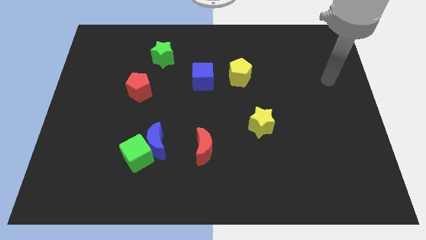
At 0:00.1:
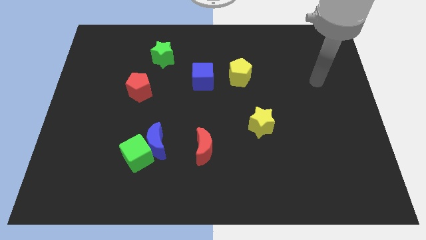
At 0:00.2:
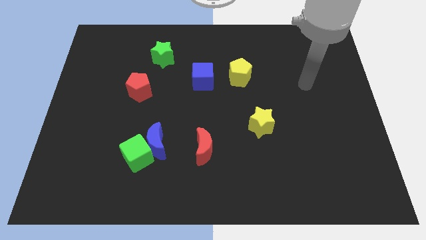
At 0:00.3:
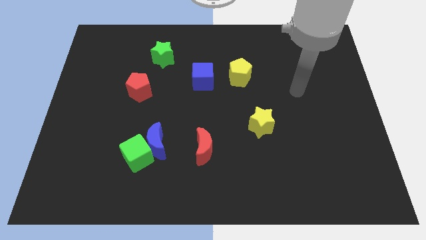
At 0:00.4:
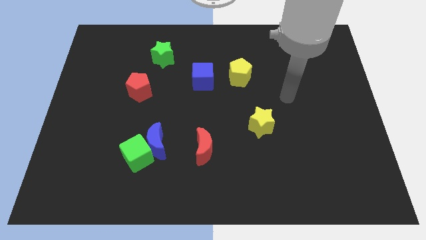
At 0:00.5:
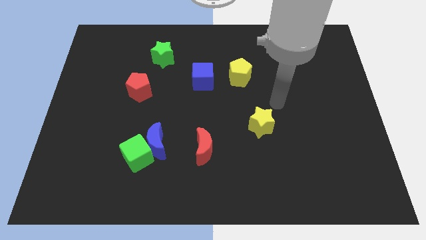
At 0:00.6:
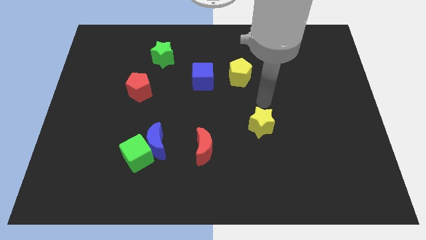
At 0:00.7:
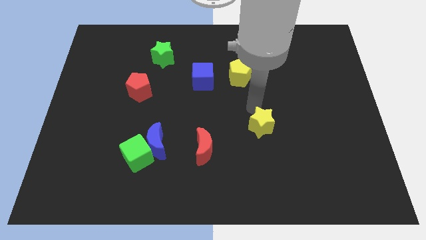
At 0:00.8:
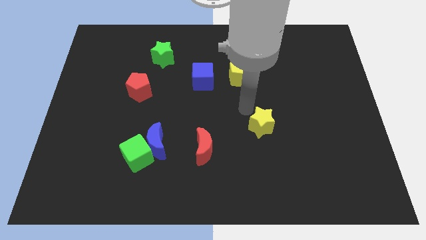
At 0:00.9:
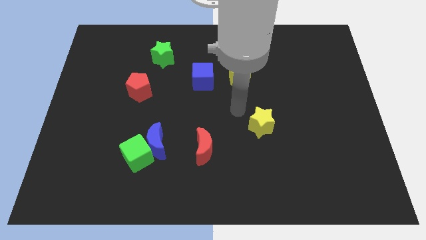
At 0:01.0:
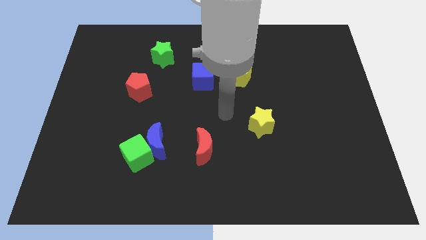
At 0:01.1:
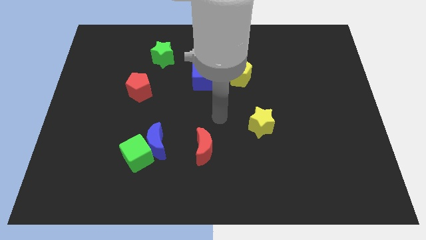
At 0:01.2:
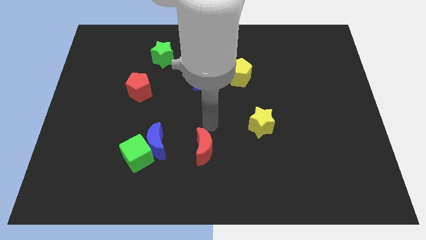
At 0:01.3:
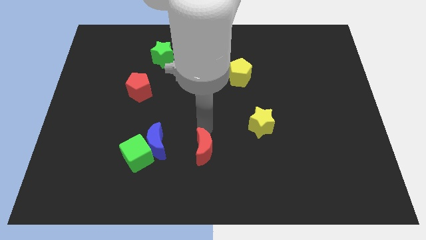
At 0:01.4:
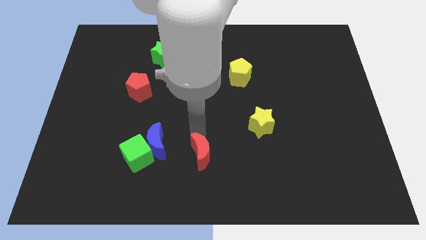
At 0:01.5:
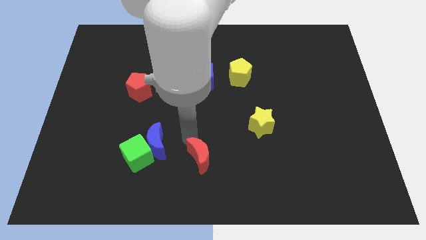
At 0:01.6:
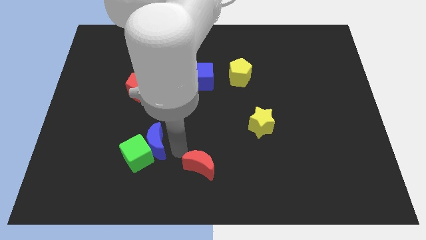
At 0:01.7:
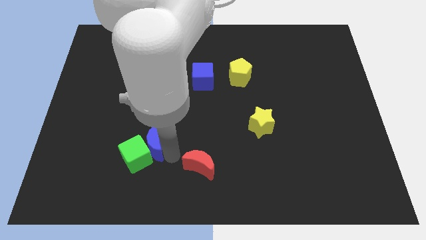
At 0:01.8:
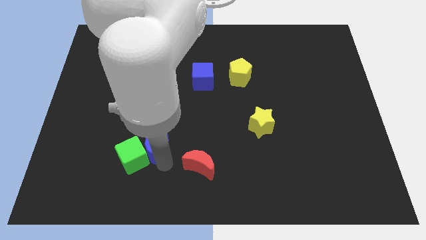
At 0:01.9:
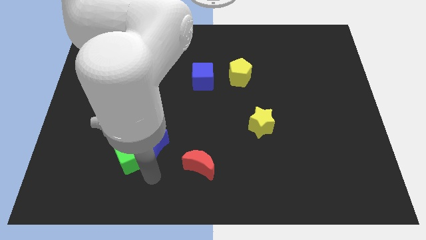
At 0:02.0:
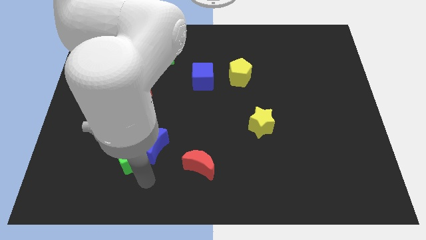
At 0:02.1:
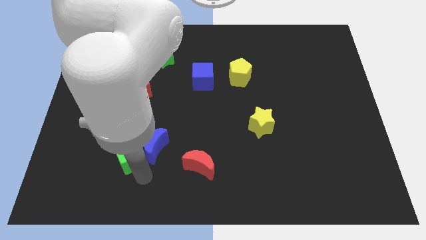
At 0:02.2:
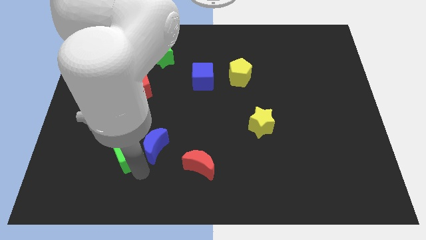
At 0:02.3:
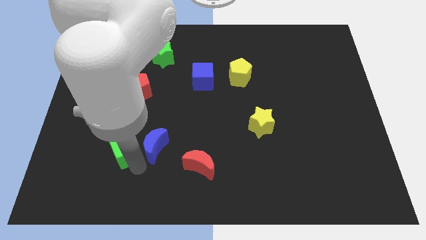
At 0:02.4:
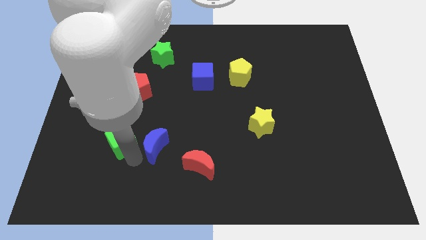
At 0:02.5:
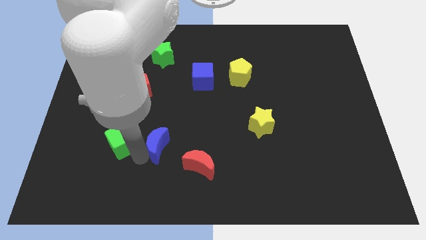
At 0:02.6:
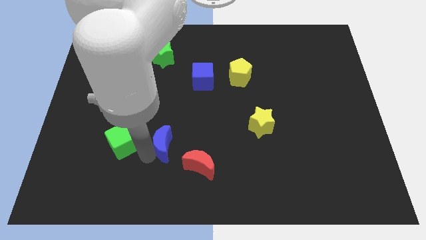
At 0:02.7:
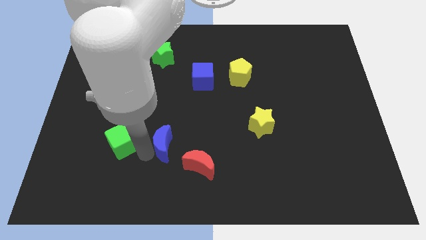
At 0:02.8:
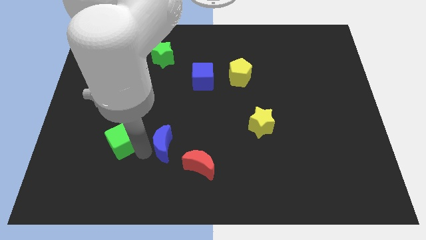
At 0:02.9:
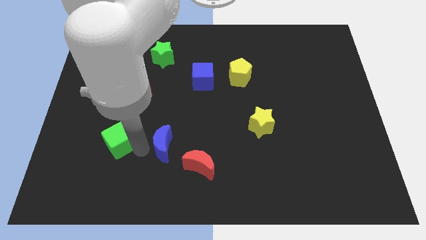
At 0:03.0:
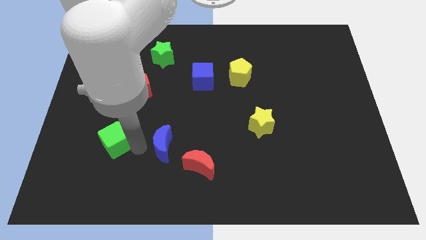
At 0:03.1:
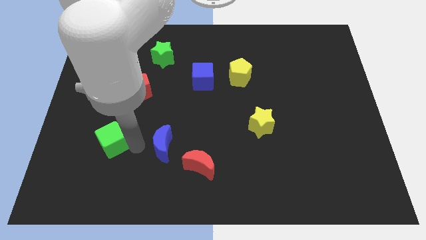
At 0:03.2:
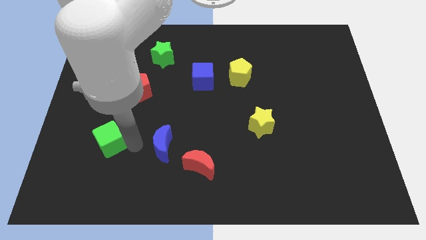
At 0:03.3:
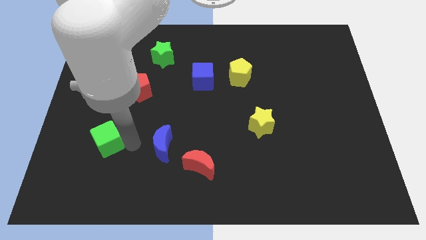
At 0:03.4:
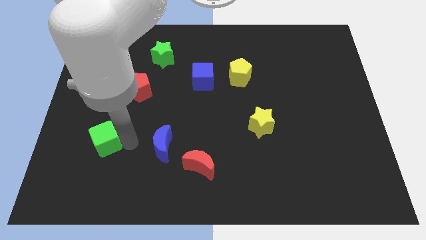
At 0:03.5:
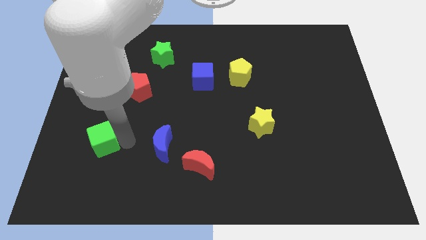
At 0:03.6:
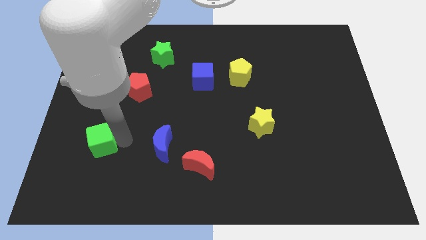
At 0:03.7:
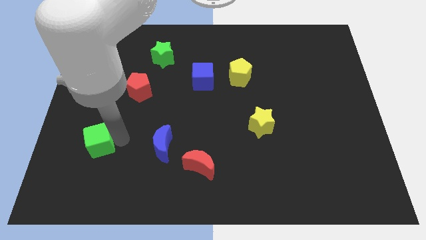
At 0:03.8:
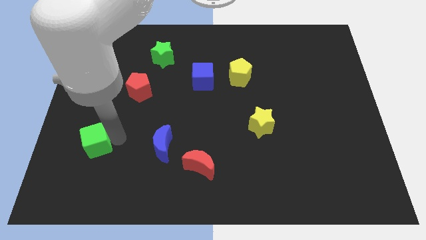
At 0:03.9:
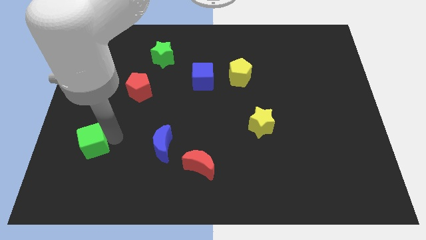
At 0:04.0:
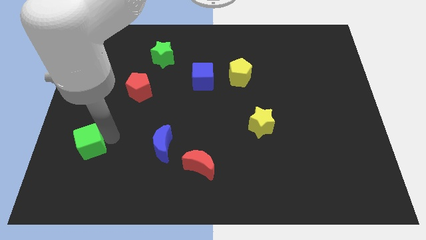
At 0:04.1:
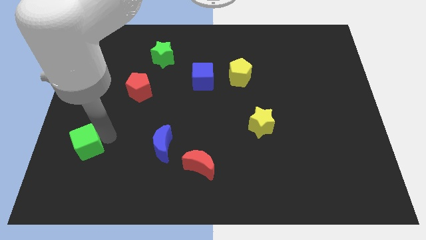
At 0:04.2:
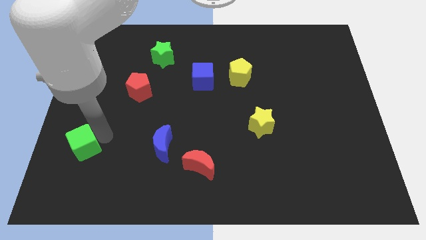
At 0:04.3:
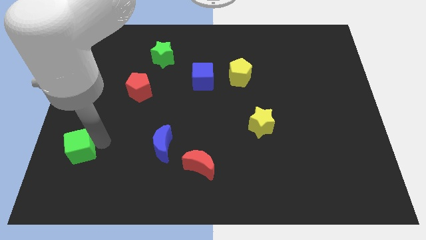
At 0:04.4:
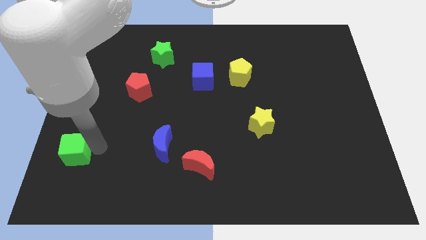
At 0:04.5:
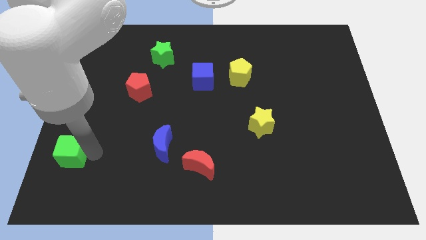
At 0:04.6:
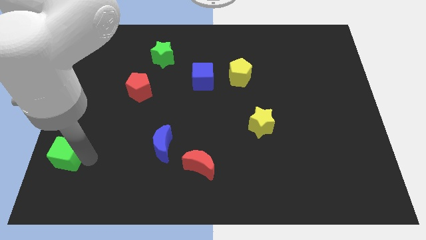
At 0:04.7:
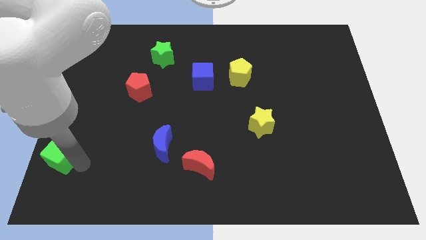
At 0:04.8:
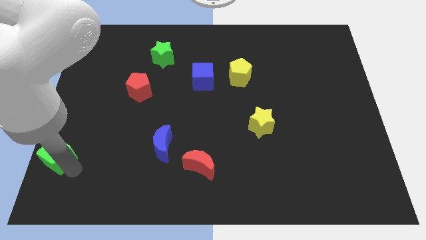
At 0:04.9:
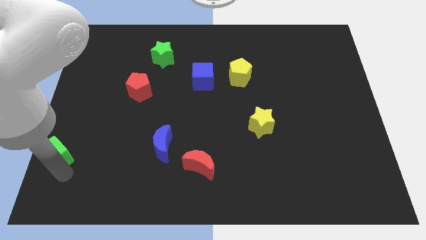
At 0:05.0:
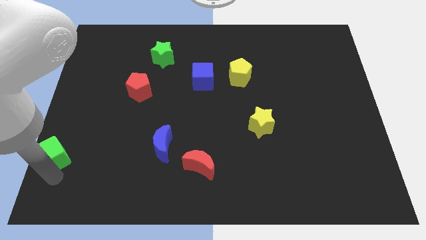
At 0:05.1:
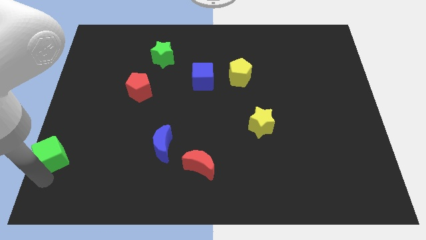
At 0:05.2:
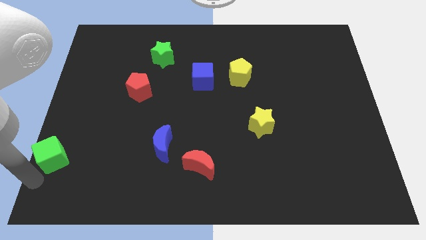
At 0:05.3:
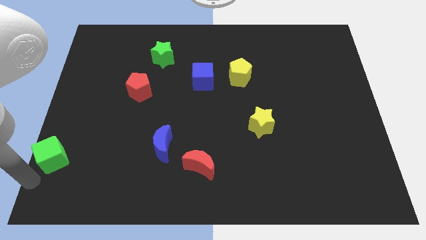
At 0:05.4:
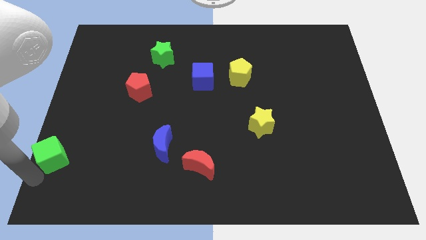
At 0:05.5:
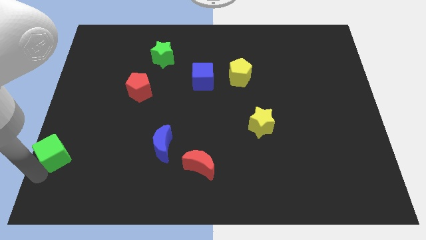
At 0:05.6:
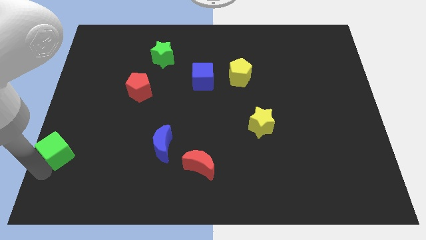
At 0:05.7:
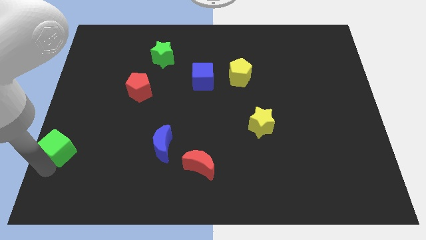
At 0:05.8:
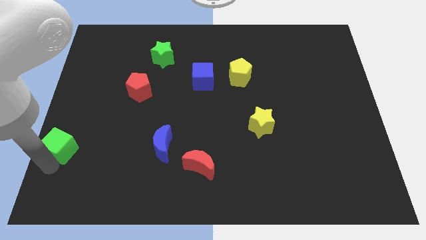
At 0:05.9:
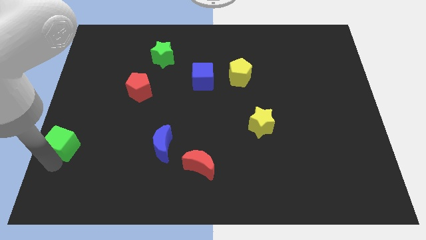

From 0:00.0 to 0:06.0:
slide the green cube to the center left

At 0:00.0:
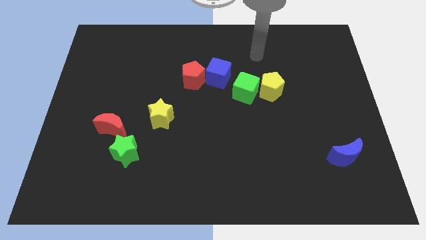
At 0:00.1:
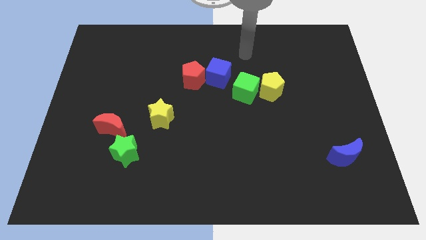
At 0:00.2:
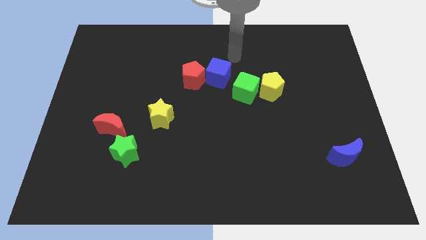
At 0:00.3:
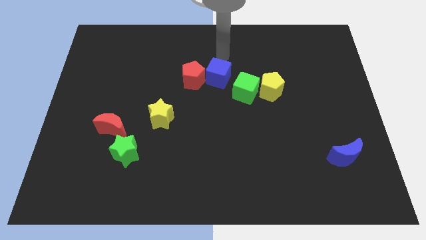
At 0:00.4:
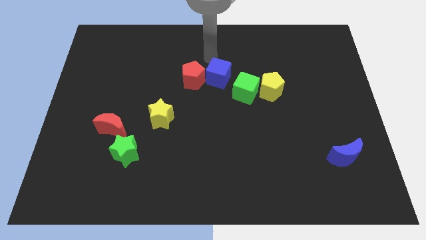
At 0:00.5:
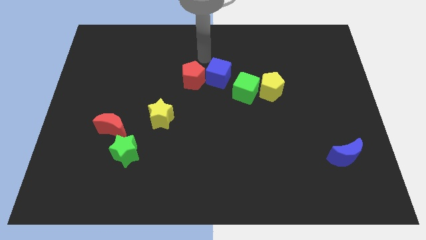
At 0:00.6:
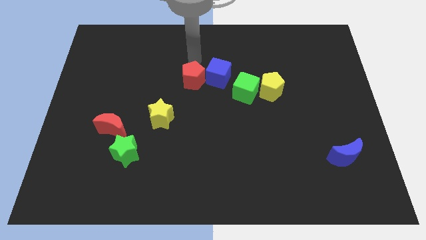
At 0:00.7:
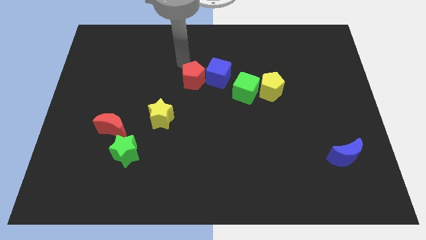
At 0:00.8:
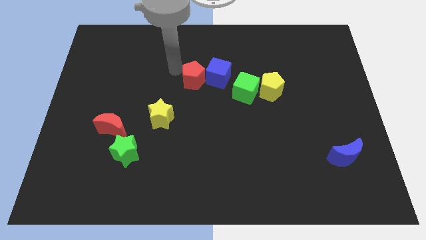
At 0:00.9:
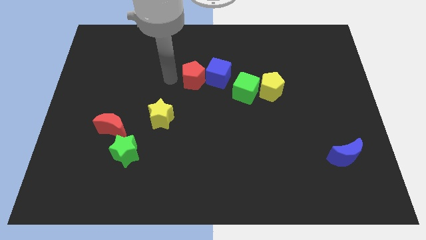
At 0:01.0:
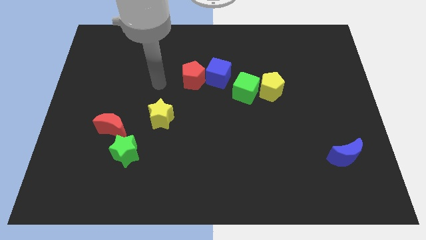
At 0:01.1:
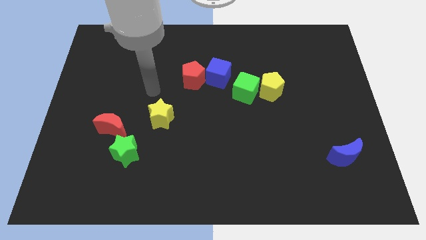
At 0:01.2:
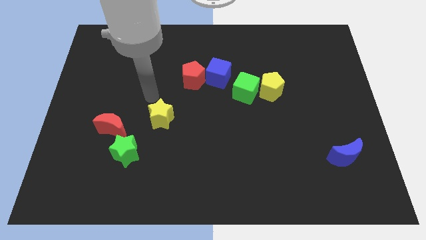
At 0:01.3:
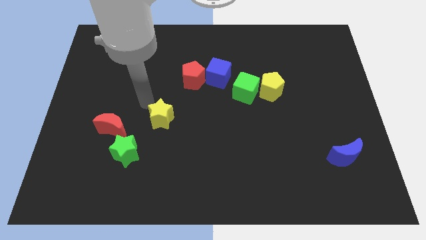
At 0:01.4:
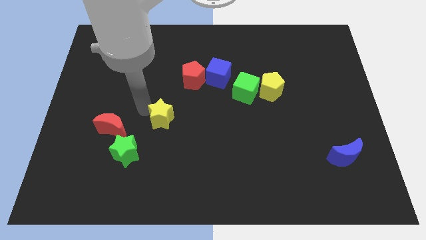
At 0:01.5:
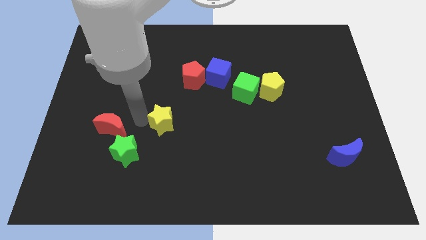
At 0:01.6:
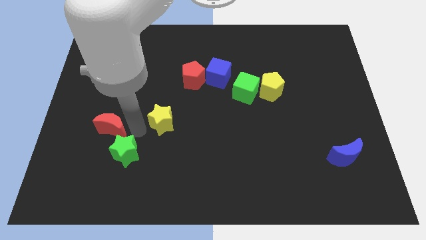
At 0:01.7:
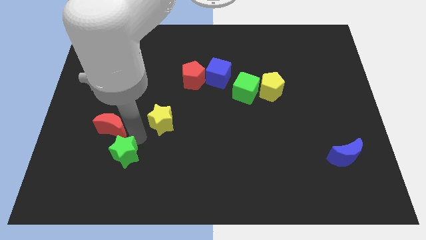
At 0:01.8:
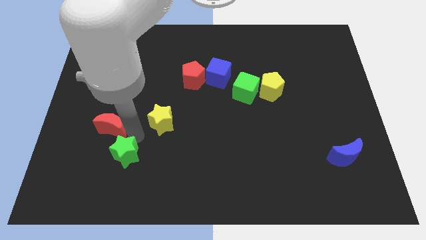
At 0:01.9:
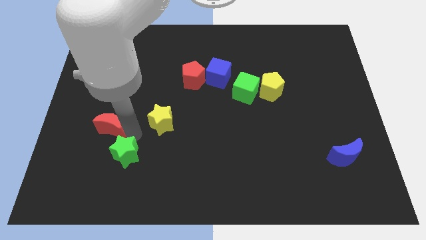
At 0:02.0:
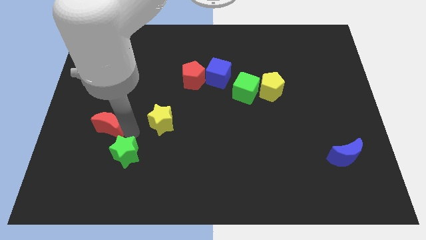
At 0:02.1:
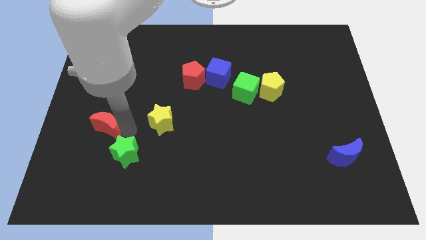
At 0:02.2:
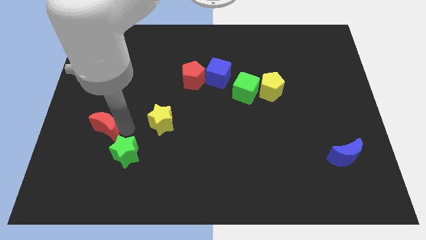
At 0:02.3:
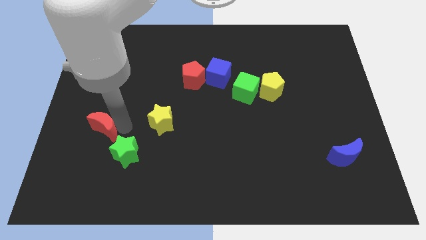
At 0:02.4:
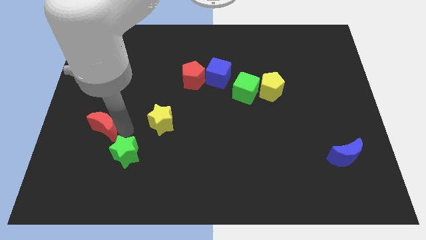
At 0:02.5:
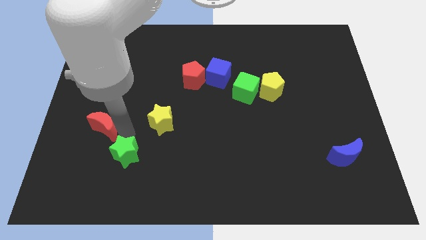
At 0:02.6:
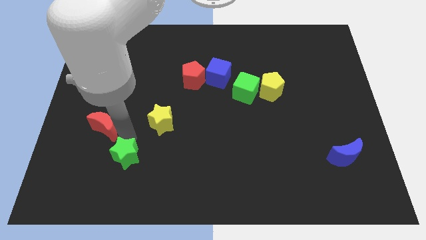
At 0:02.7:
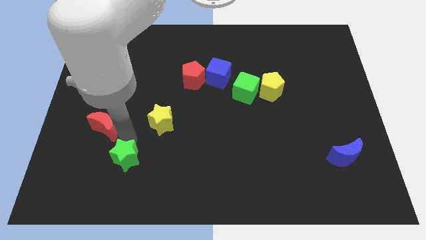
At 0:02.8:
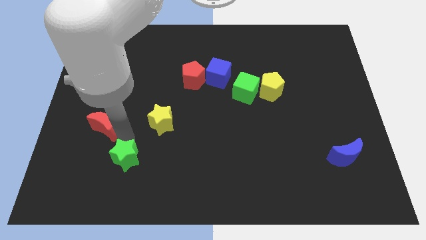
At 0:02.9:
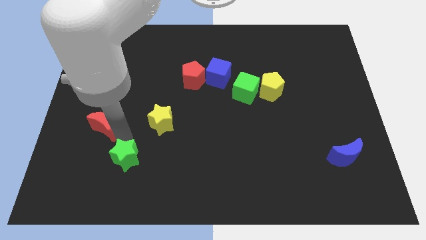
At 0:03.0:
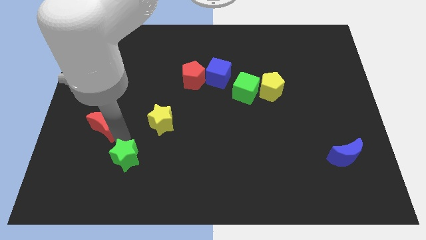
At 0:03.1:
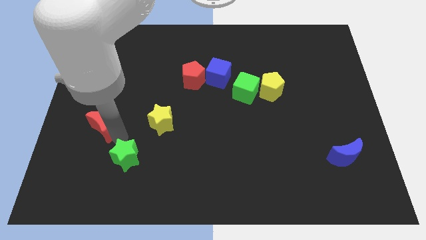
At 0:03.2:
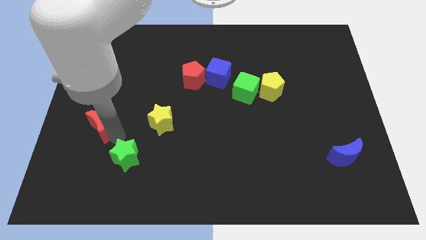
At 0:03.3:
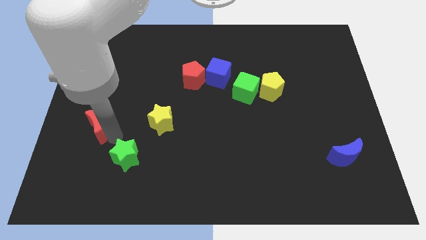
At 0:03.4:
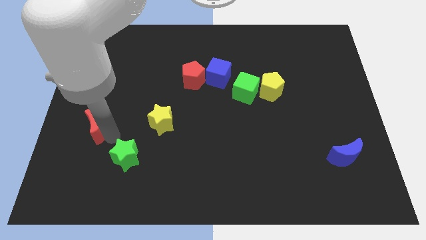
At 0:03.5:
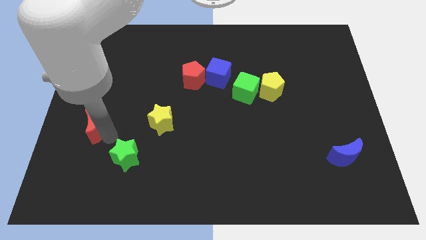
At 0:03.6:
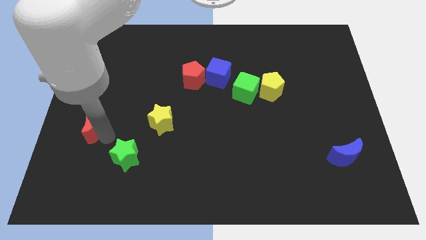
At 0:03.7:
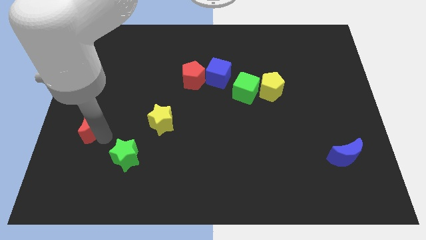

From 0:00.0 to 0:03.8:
put the red moon to the center left
